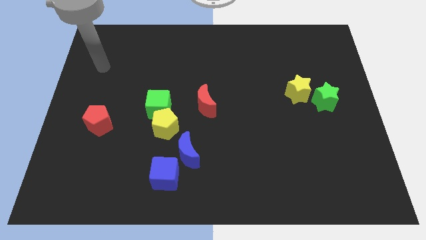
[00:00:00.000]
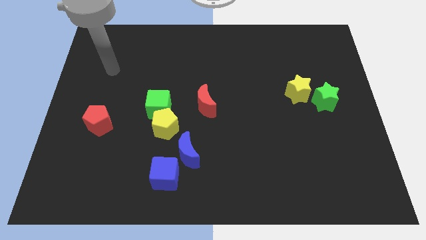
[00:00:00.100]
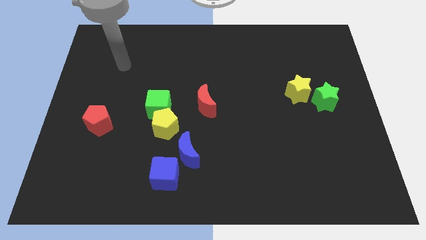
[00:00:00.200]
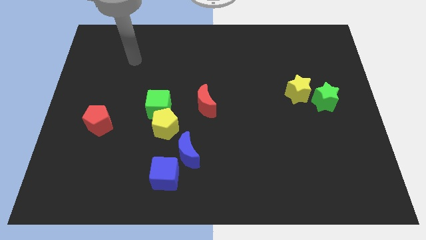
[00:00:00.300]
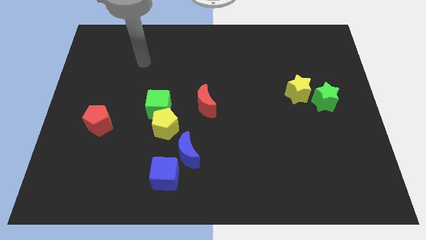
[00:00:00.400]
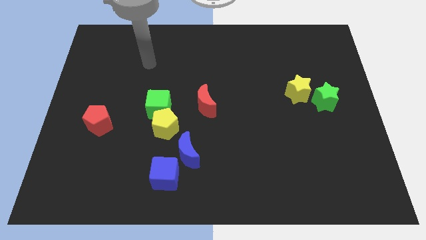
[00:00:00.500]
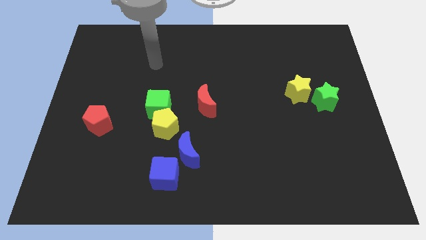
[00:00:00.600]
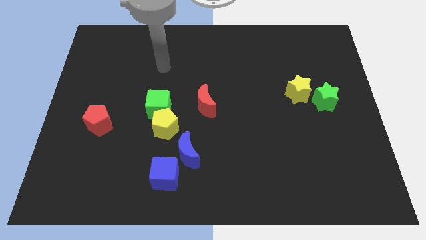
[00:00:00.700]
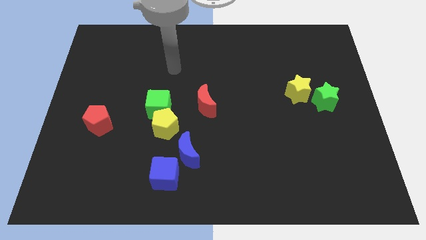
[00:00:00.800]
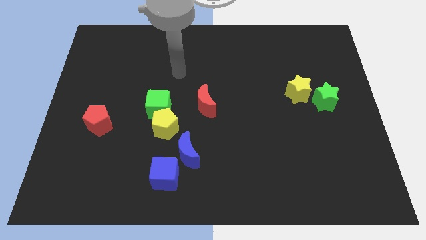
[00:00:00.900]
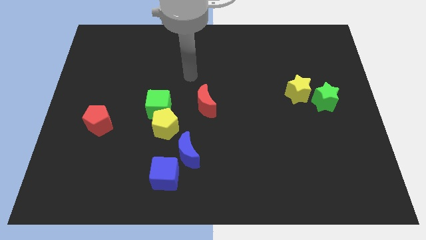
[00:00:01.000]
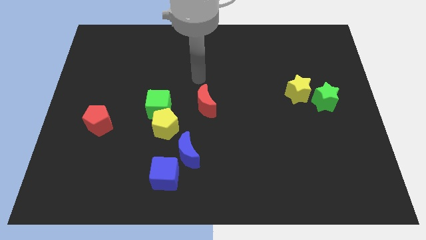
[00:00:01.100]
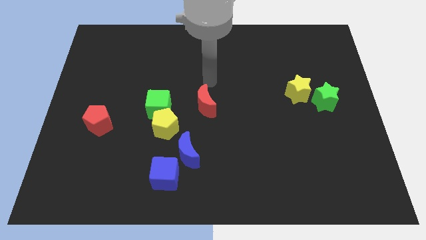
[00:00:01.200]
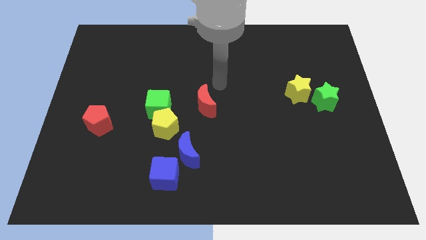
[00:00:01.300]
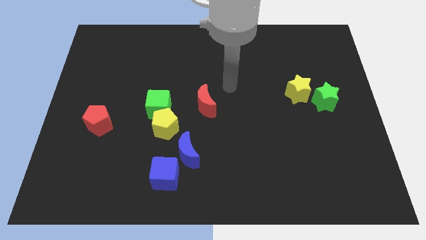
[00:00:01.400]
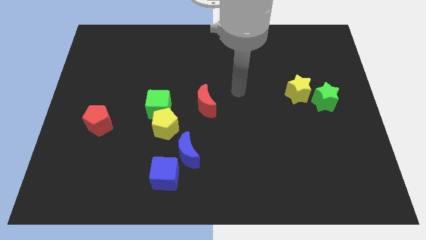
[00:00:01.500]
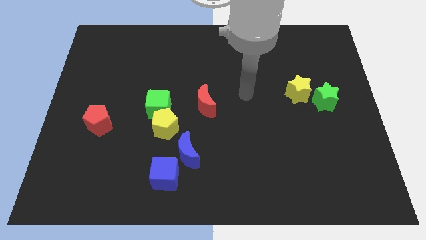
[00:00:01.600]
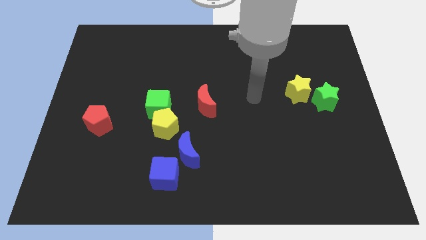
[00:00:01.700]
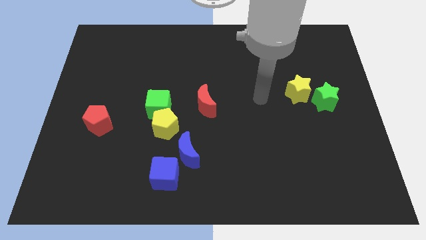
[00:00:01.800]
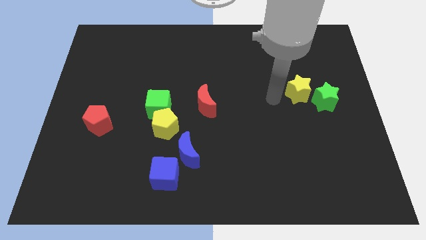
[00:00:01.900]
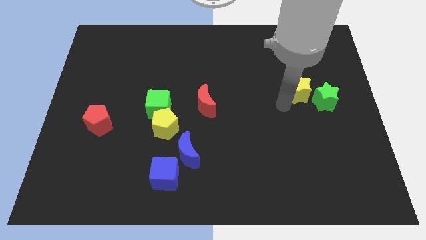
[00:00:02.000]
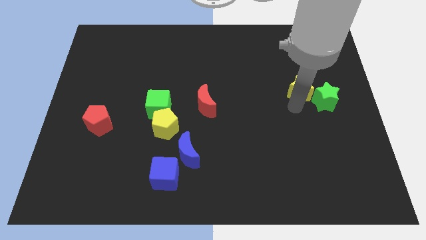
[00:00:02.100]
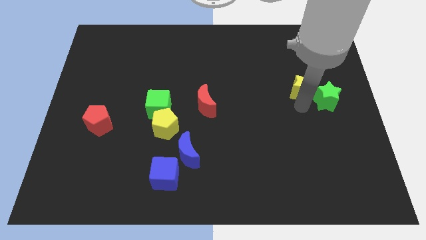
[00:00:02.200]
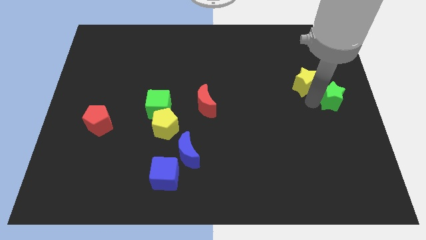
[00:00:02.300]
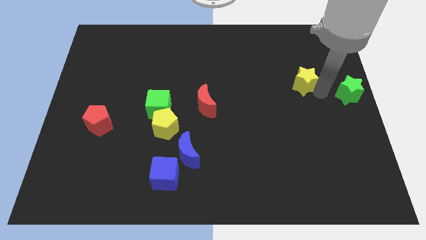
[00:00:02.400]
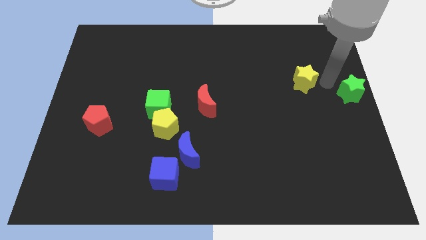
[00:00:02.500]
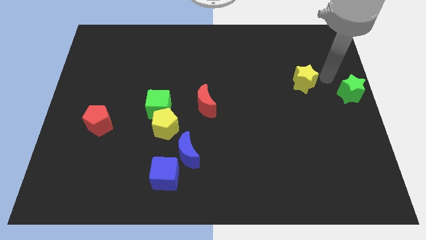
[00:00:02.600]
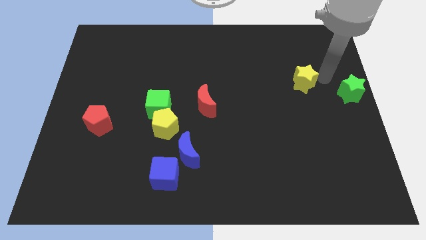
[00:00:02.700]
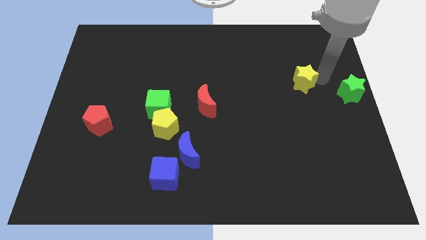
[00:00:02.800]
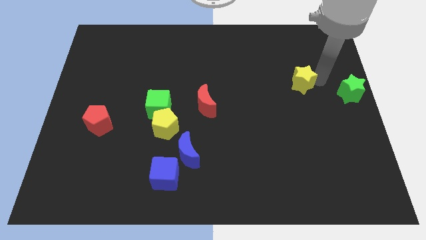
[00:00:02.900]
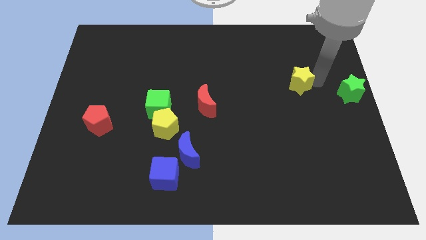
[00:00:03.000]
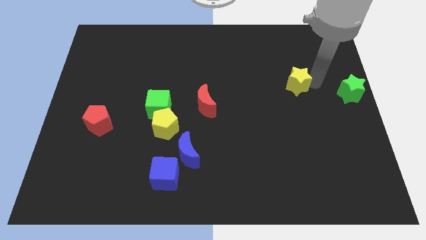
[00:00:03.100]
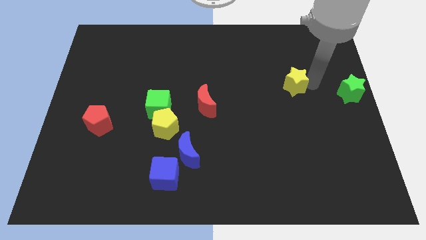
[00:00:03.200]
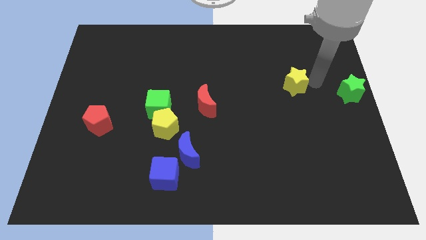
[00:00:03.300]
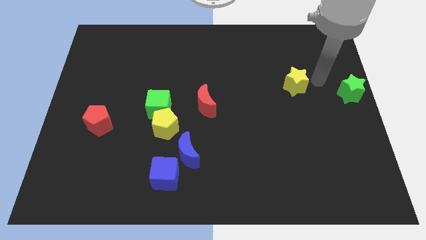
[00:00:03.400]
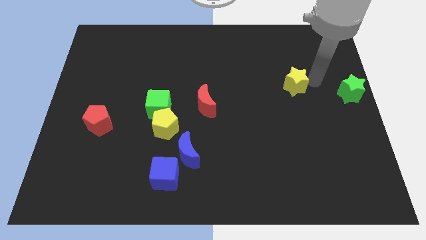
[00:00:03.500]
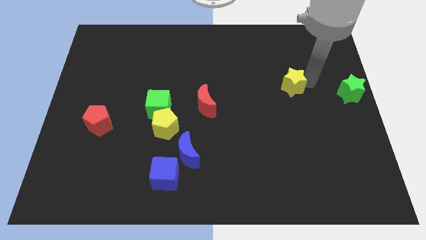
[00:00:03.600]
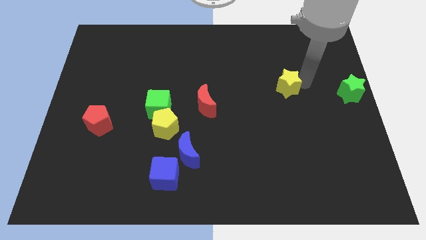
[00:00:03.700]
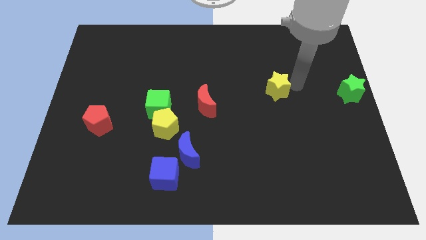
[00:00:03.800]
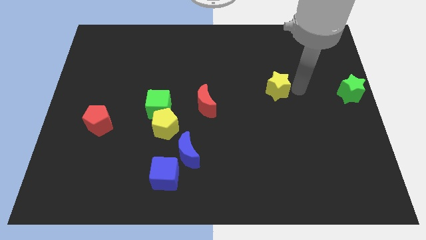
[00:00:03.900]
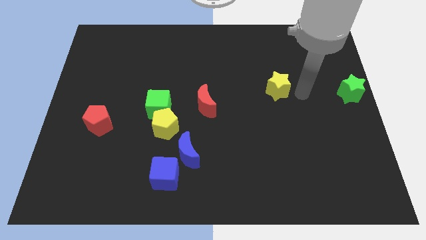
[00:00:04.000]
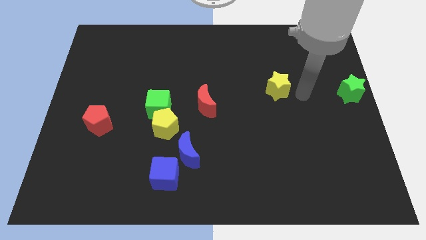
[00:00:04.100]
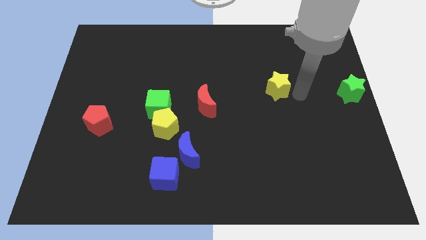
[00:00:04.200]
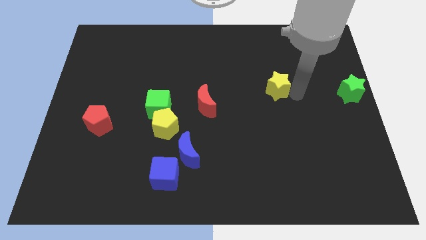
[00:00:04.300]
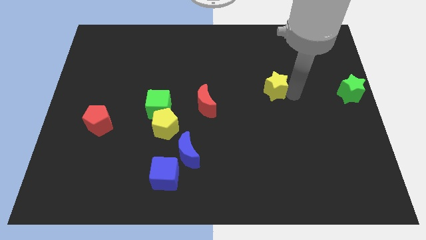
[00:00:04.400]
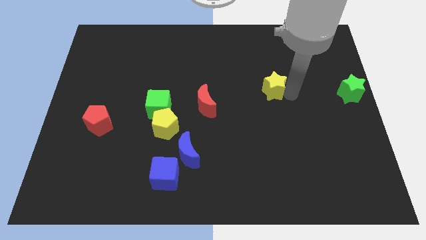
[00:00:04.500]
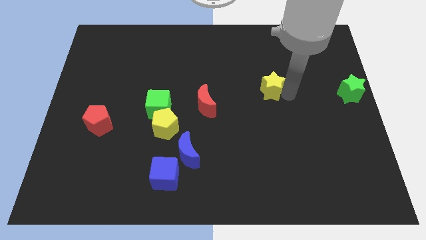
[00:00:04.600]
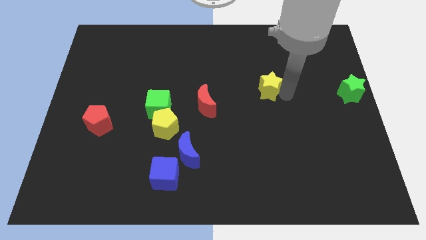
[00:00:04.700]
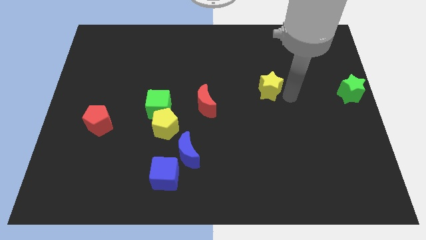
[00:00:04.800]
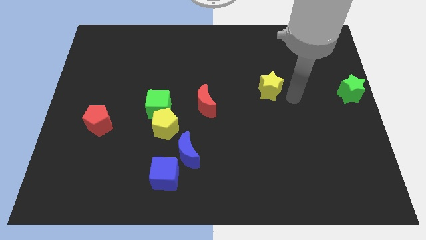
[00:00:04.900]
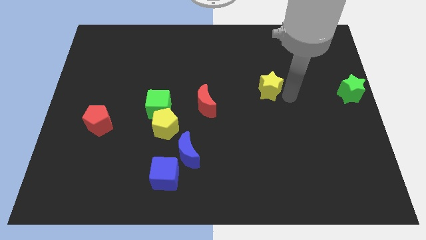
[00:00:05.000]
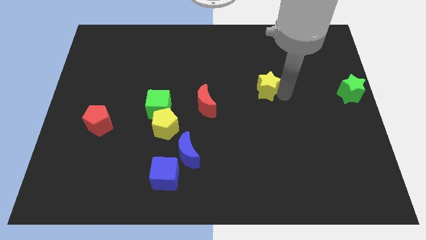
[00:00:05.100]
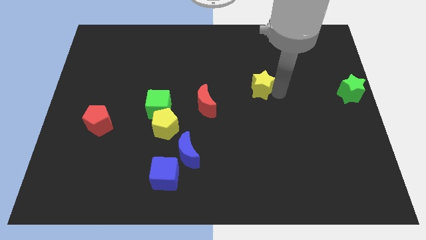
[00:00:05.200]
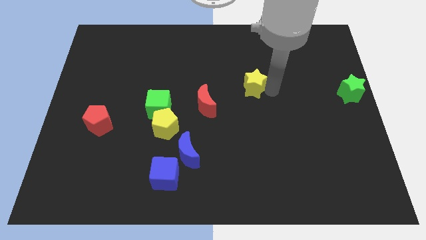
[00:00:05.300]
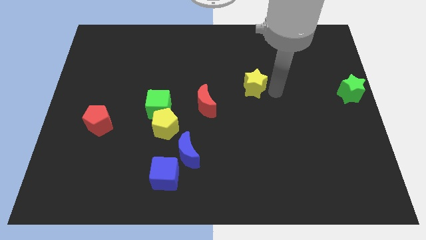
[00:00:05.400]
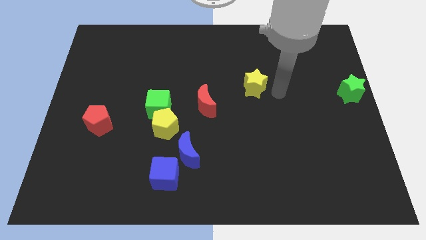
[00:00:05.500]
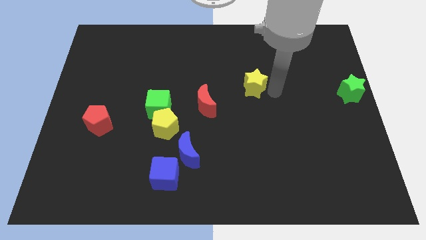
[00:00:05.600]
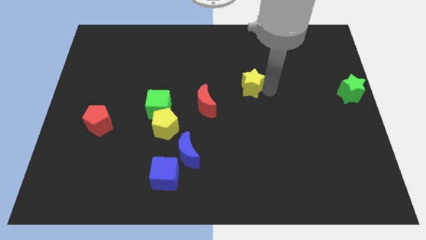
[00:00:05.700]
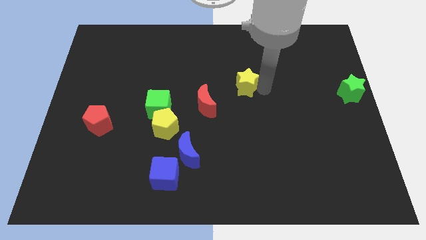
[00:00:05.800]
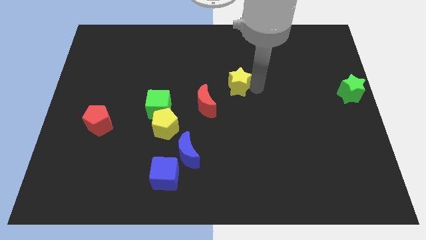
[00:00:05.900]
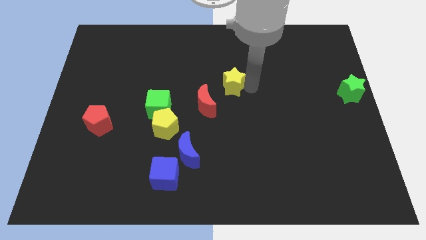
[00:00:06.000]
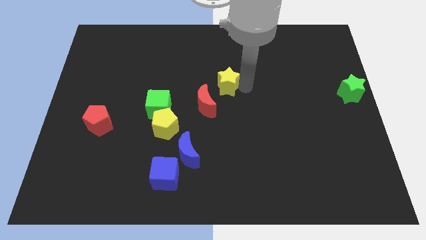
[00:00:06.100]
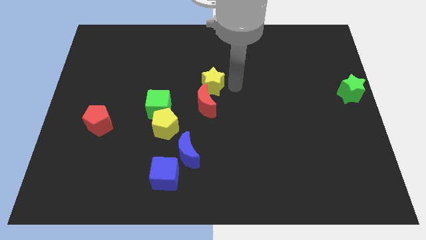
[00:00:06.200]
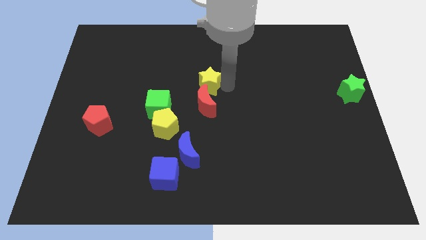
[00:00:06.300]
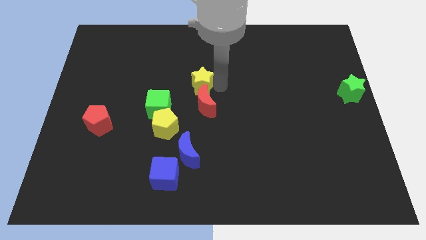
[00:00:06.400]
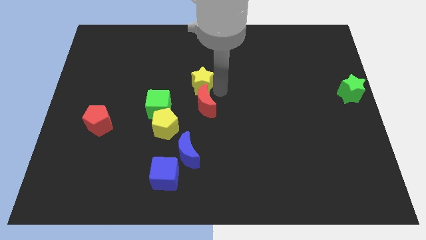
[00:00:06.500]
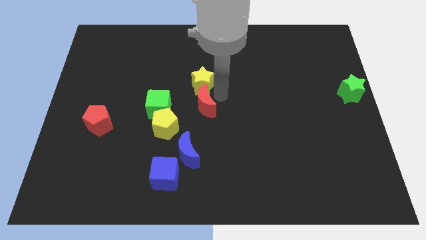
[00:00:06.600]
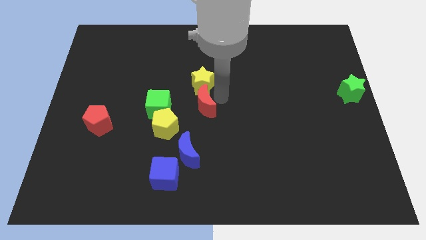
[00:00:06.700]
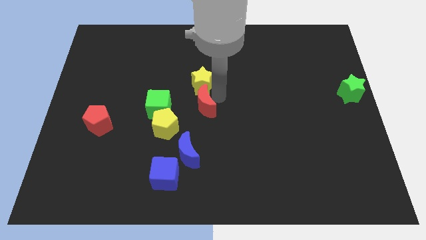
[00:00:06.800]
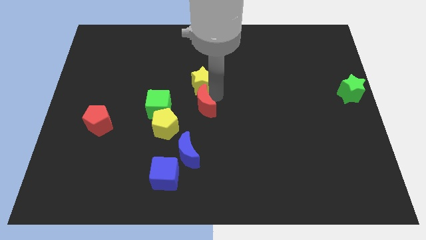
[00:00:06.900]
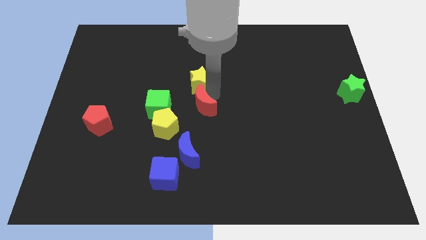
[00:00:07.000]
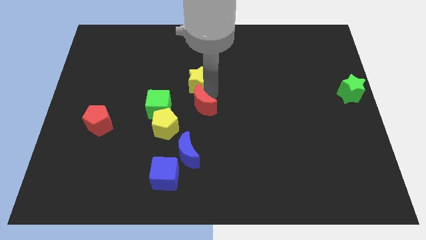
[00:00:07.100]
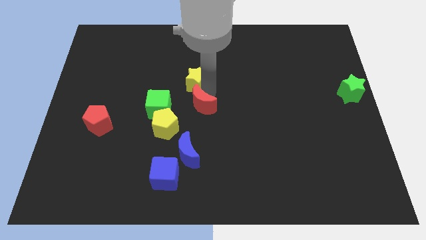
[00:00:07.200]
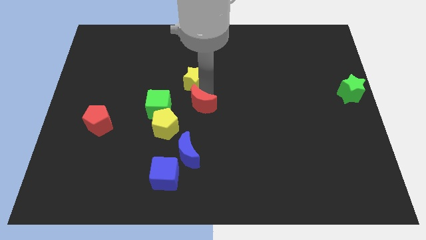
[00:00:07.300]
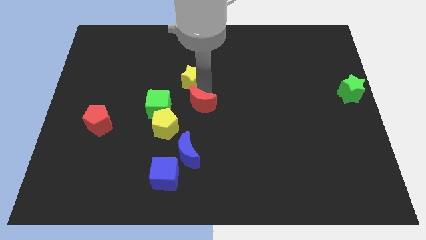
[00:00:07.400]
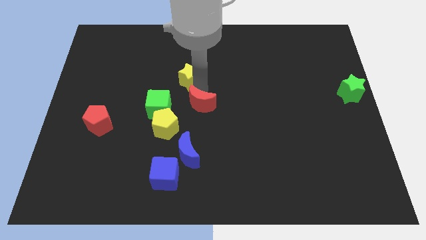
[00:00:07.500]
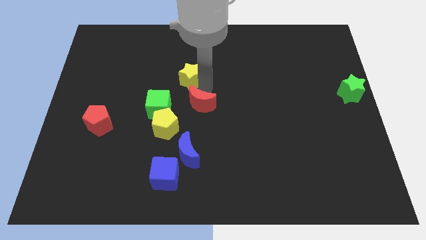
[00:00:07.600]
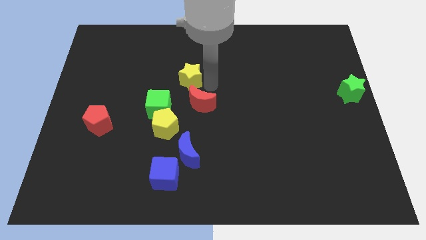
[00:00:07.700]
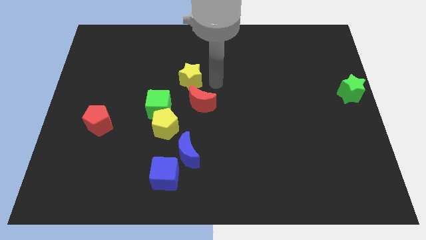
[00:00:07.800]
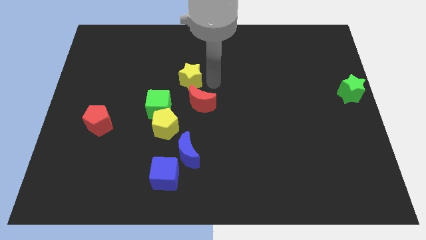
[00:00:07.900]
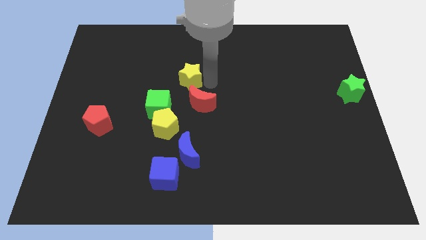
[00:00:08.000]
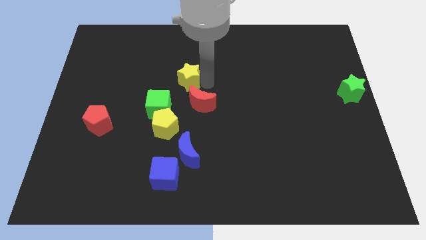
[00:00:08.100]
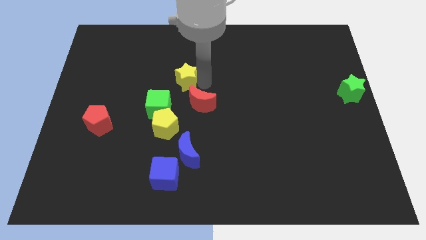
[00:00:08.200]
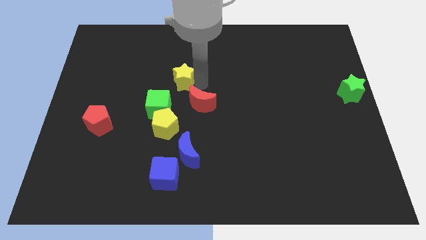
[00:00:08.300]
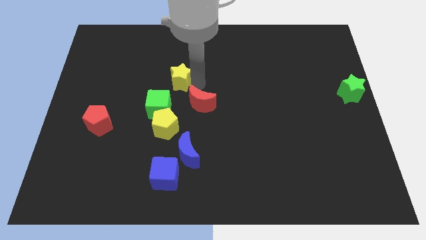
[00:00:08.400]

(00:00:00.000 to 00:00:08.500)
push the yellow star above the green cube
